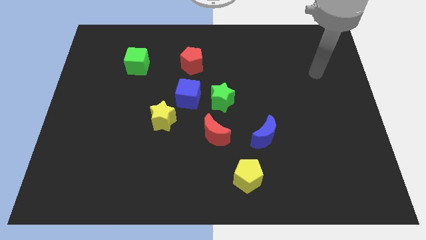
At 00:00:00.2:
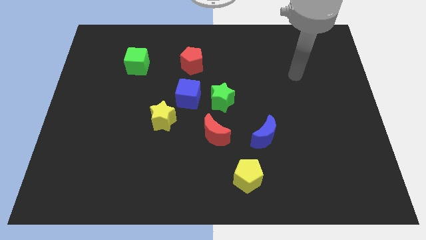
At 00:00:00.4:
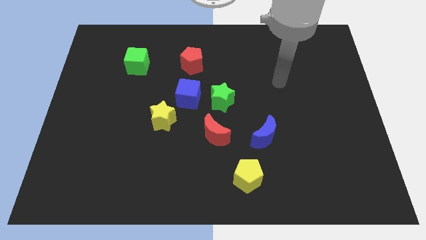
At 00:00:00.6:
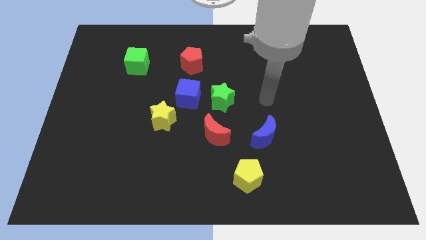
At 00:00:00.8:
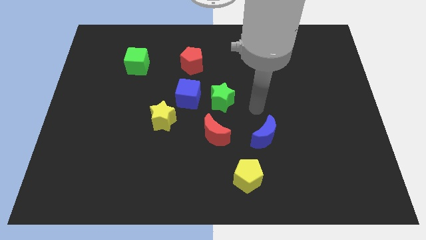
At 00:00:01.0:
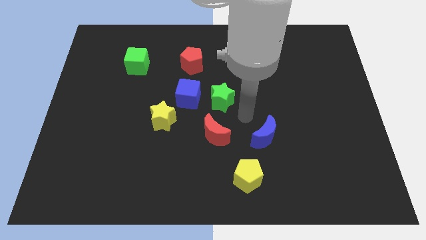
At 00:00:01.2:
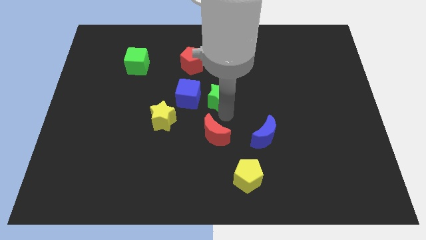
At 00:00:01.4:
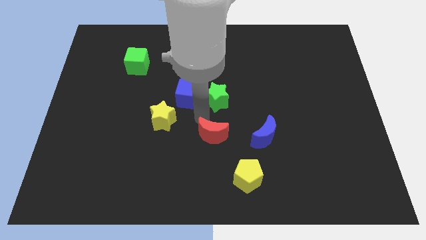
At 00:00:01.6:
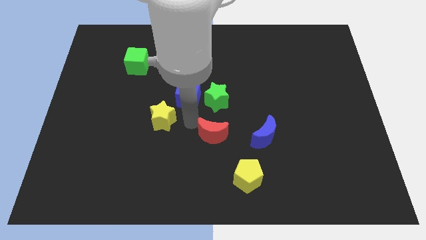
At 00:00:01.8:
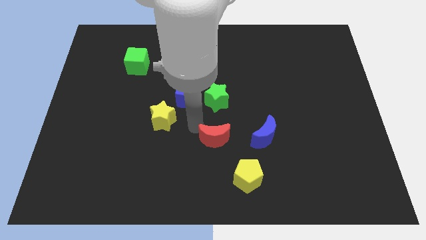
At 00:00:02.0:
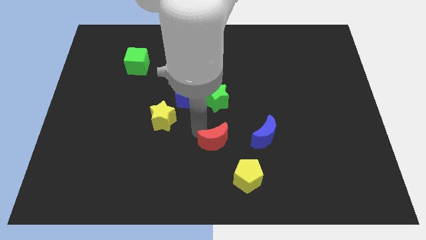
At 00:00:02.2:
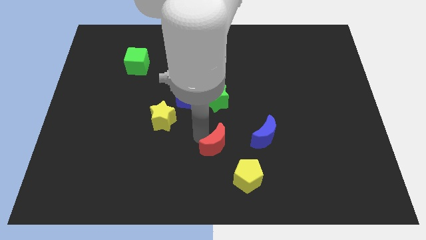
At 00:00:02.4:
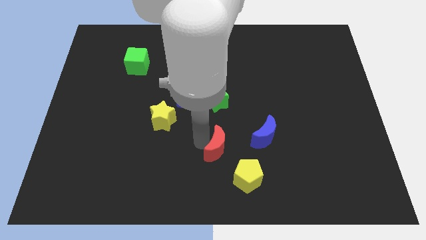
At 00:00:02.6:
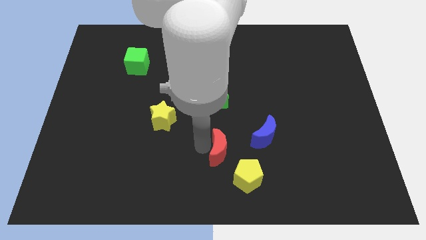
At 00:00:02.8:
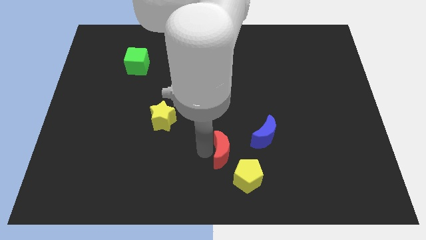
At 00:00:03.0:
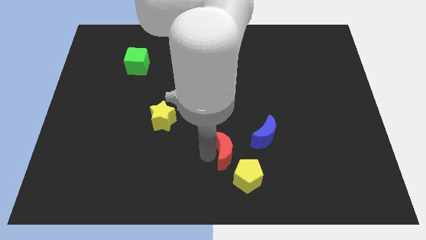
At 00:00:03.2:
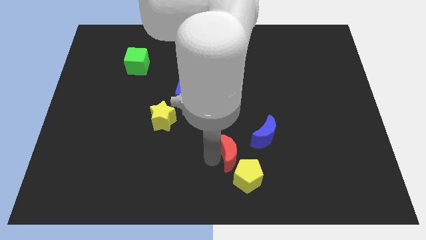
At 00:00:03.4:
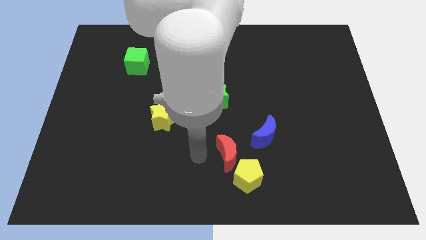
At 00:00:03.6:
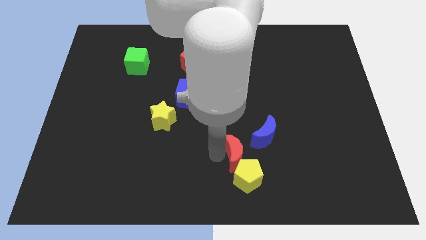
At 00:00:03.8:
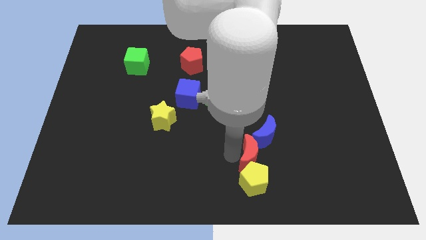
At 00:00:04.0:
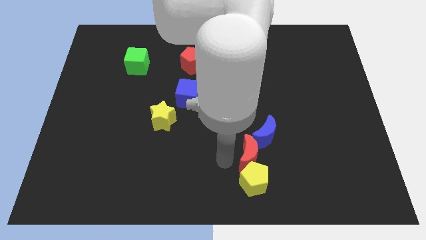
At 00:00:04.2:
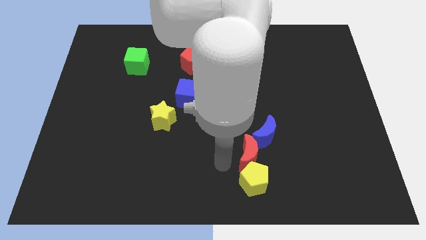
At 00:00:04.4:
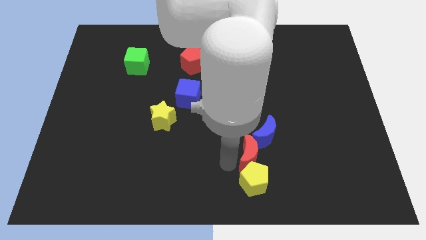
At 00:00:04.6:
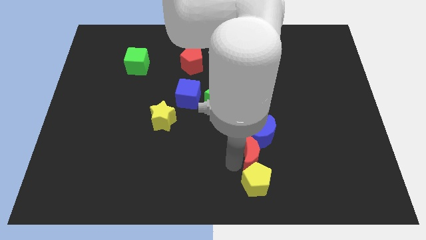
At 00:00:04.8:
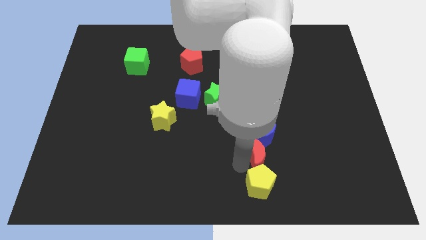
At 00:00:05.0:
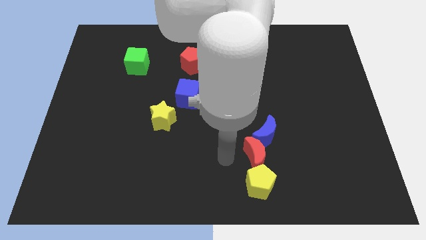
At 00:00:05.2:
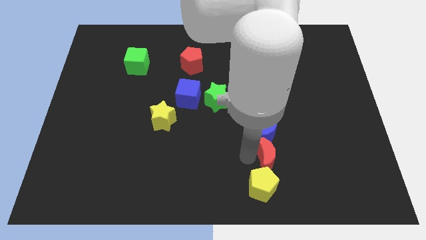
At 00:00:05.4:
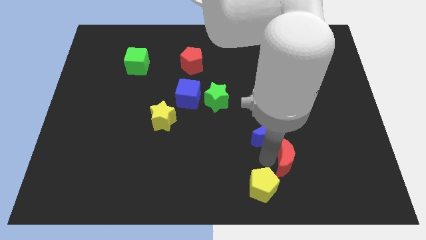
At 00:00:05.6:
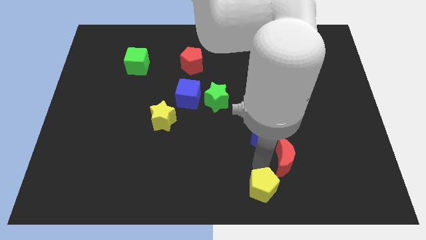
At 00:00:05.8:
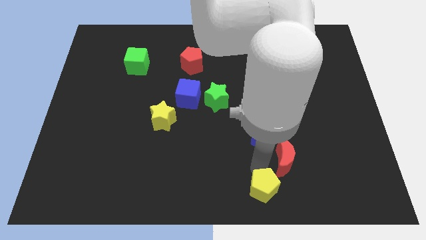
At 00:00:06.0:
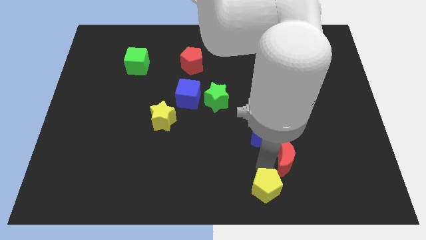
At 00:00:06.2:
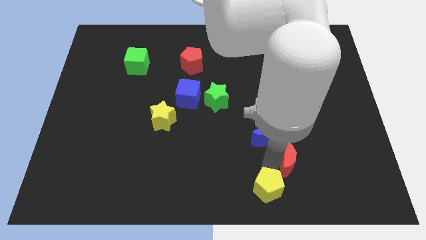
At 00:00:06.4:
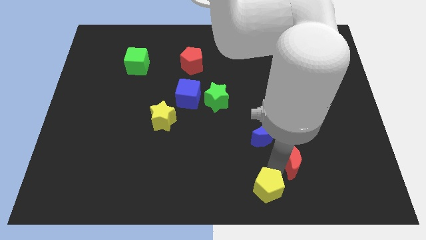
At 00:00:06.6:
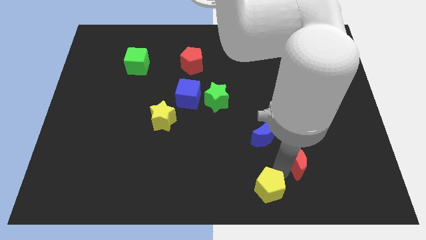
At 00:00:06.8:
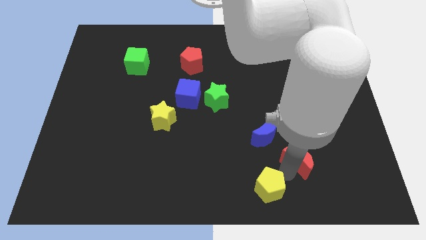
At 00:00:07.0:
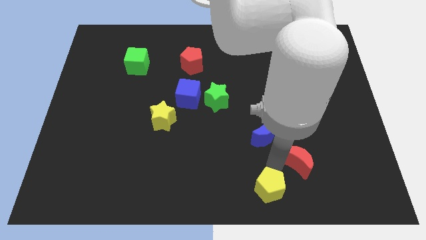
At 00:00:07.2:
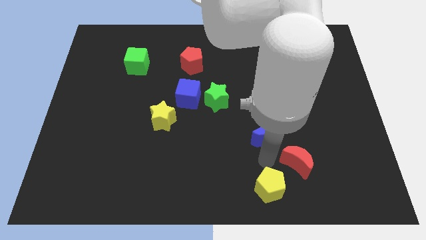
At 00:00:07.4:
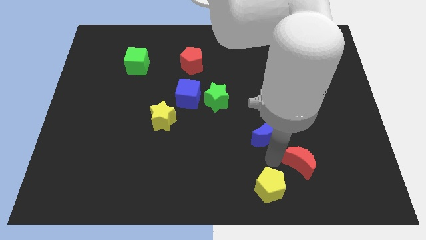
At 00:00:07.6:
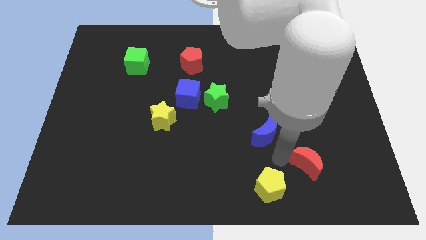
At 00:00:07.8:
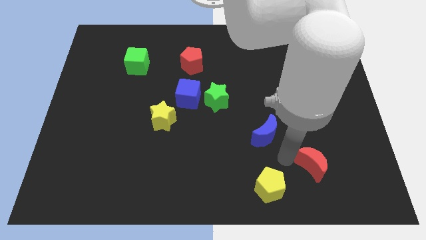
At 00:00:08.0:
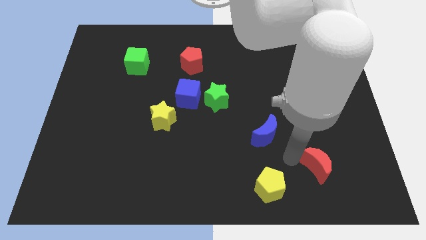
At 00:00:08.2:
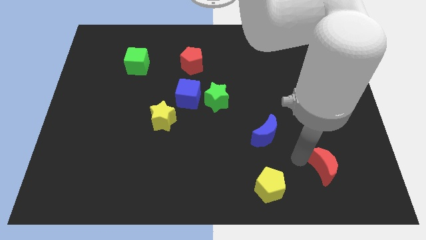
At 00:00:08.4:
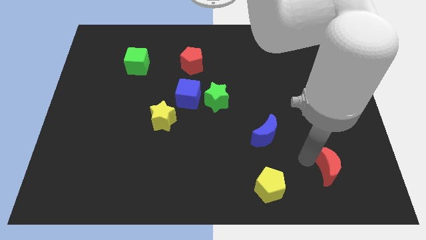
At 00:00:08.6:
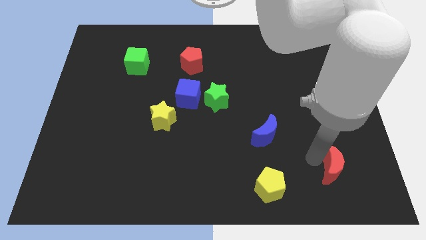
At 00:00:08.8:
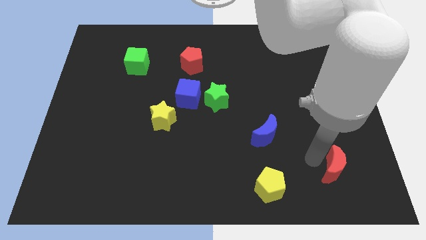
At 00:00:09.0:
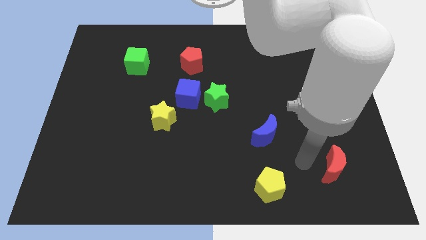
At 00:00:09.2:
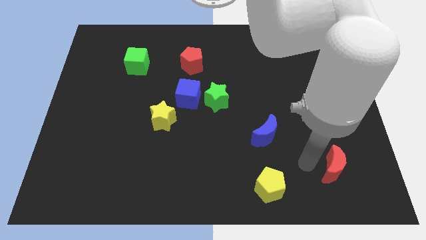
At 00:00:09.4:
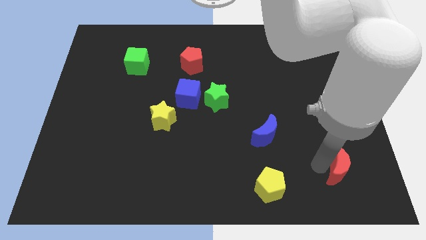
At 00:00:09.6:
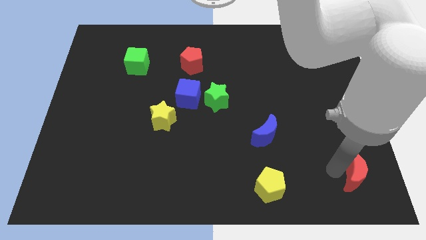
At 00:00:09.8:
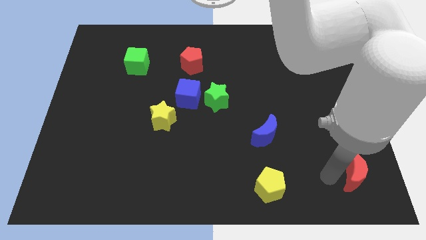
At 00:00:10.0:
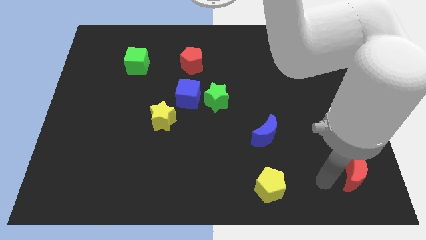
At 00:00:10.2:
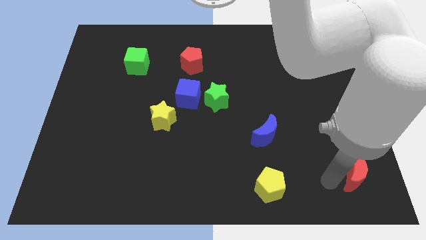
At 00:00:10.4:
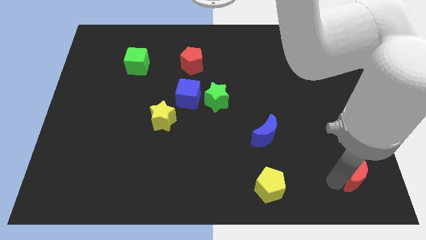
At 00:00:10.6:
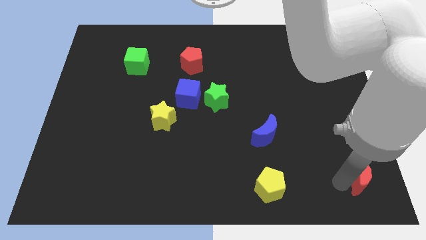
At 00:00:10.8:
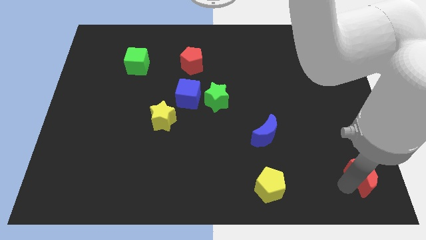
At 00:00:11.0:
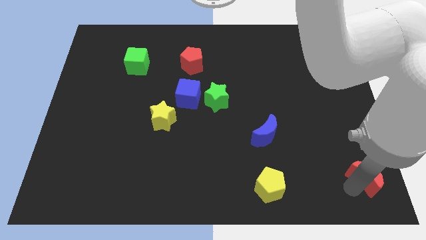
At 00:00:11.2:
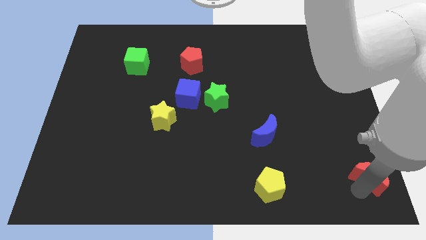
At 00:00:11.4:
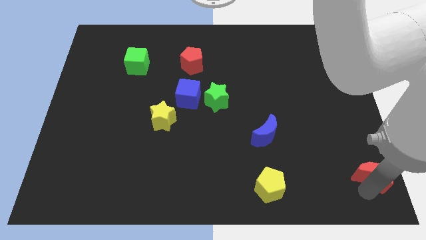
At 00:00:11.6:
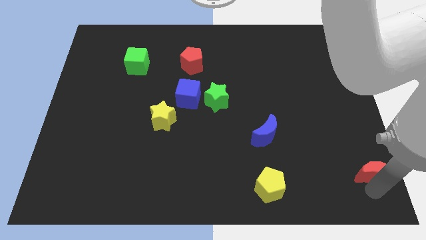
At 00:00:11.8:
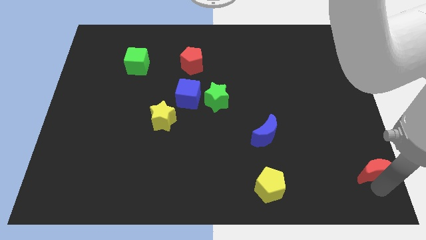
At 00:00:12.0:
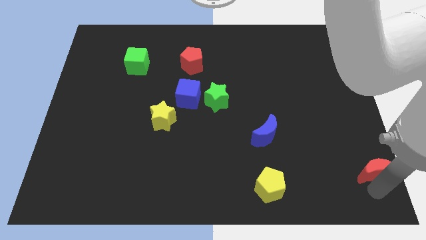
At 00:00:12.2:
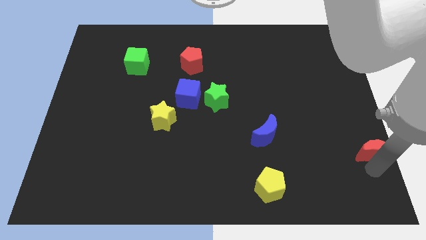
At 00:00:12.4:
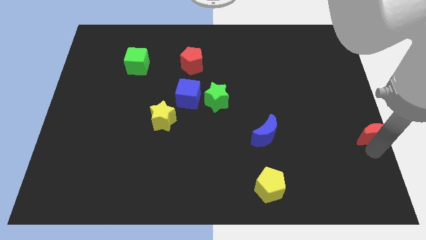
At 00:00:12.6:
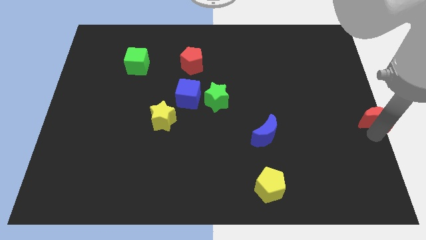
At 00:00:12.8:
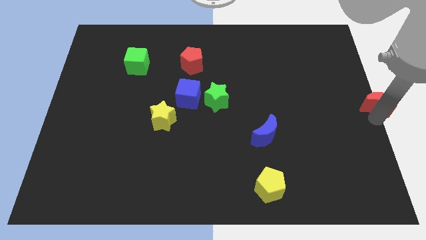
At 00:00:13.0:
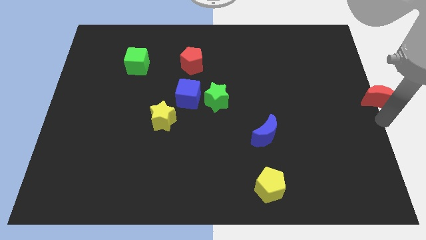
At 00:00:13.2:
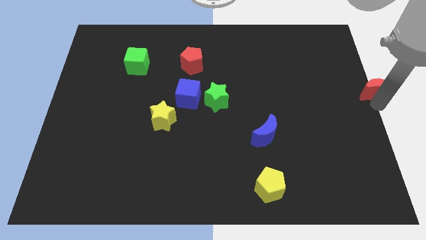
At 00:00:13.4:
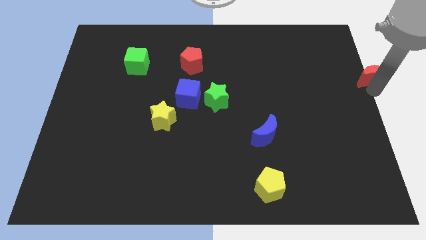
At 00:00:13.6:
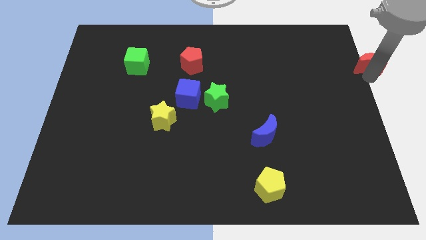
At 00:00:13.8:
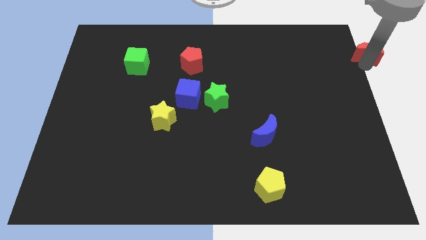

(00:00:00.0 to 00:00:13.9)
slide the red moon to the top right of the board

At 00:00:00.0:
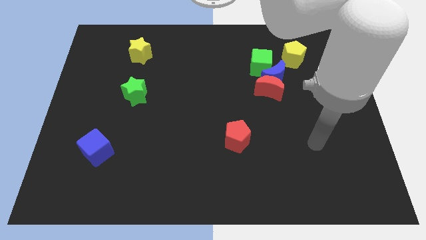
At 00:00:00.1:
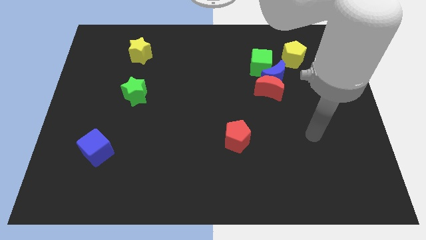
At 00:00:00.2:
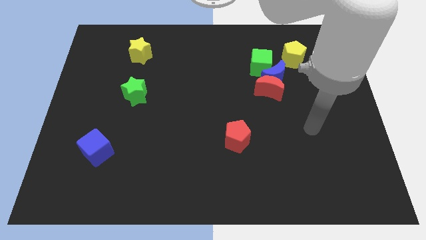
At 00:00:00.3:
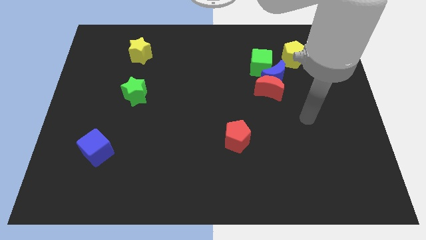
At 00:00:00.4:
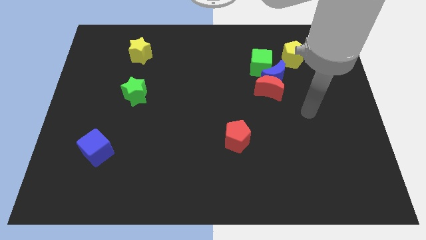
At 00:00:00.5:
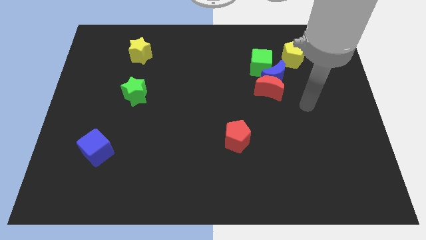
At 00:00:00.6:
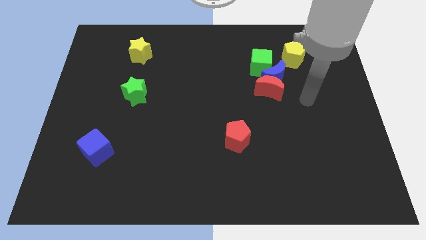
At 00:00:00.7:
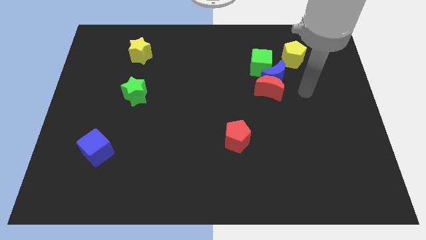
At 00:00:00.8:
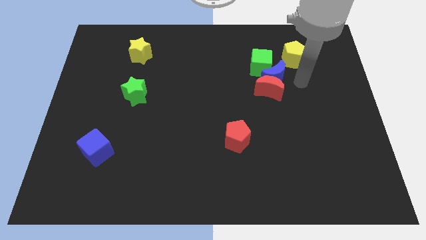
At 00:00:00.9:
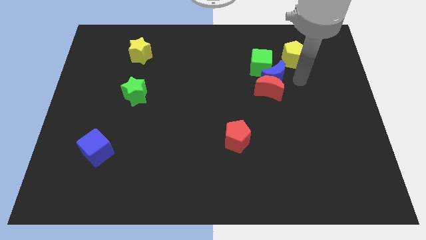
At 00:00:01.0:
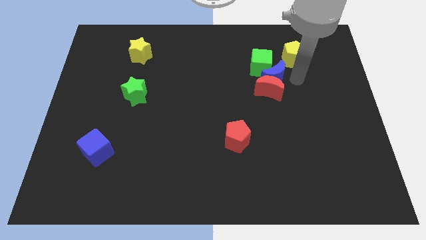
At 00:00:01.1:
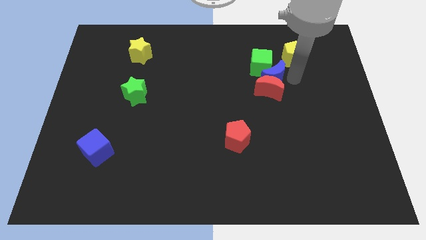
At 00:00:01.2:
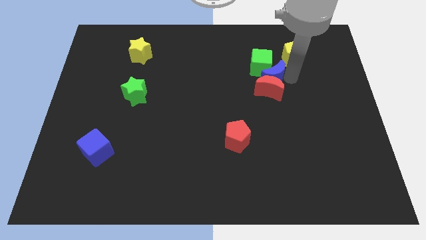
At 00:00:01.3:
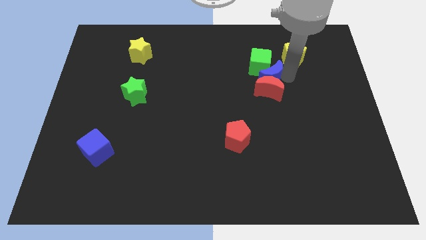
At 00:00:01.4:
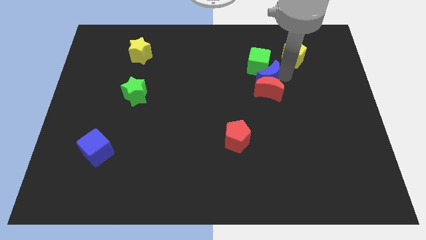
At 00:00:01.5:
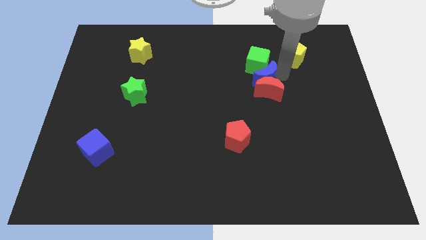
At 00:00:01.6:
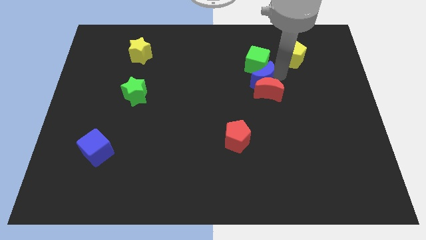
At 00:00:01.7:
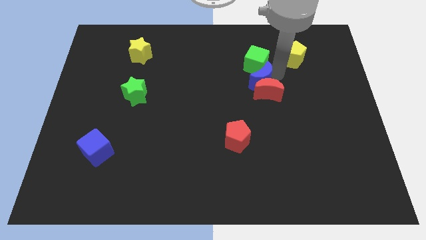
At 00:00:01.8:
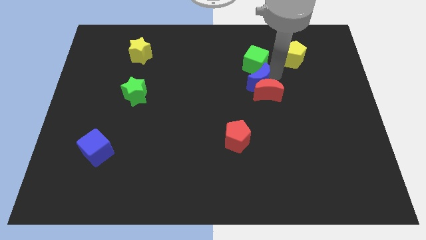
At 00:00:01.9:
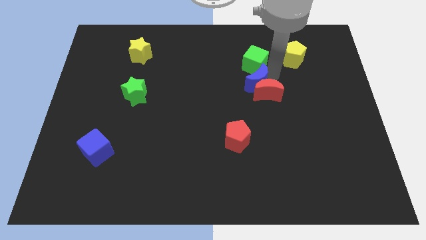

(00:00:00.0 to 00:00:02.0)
slide the blue moon to the middle
